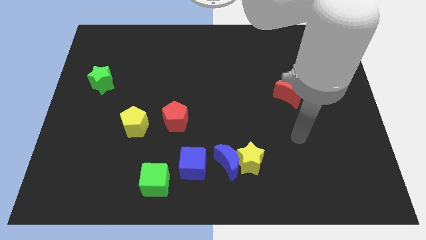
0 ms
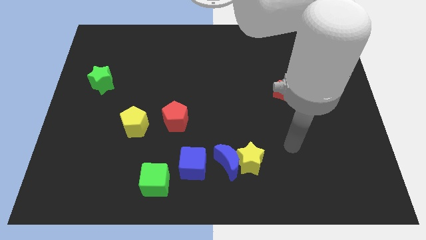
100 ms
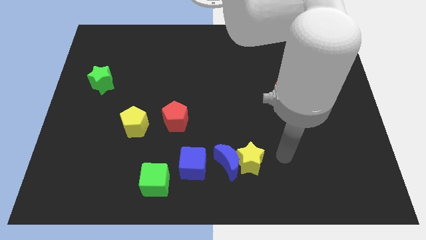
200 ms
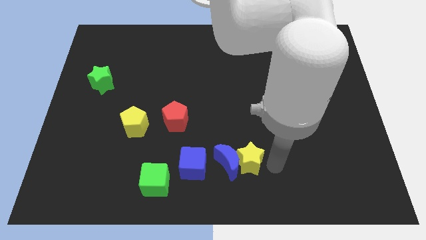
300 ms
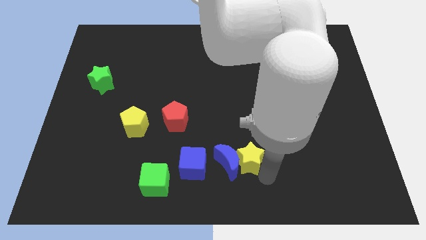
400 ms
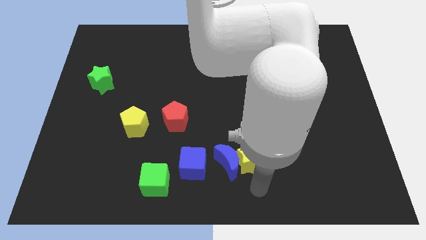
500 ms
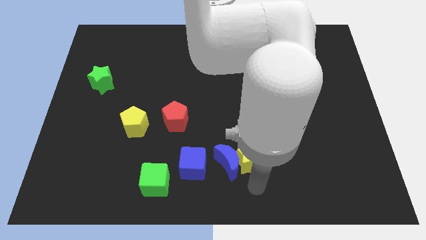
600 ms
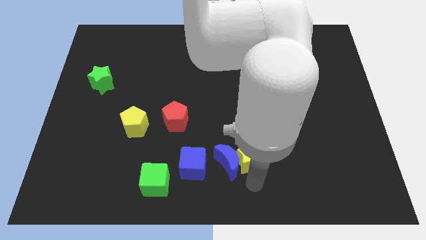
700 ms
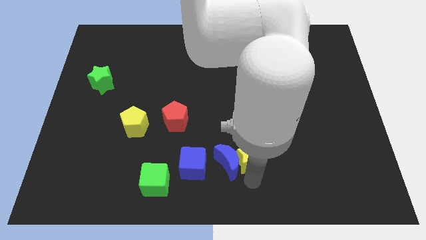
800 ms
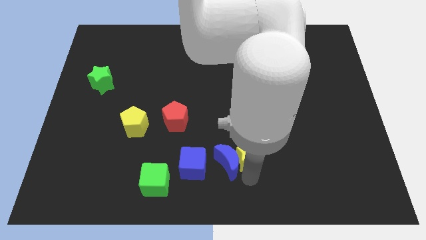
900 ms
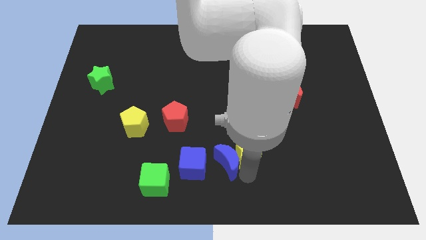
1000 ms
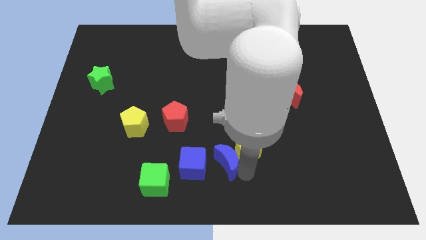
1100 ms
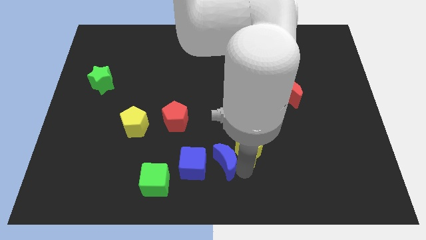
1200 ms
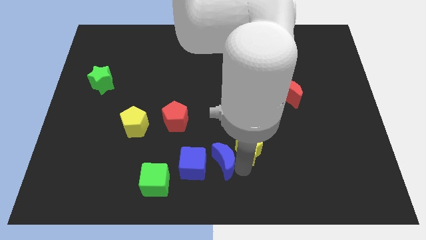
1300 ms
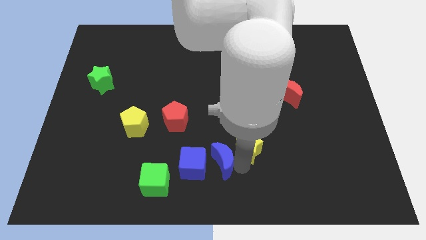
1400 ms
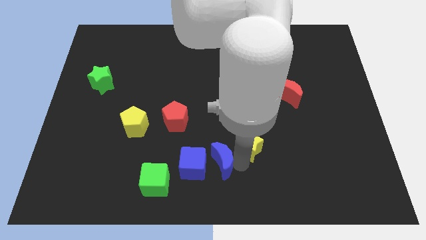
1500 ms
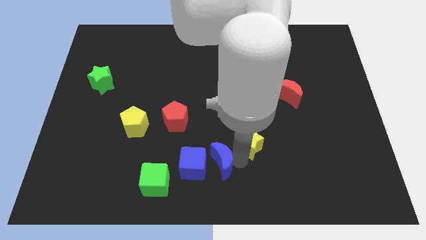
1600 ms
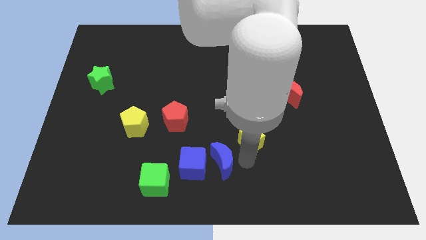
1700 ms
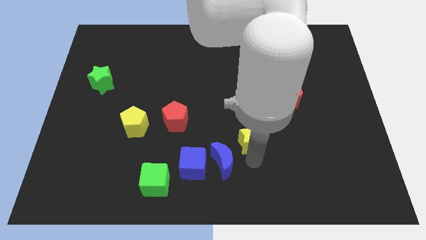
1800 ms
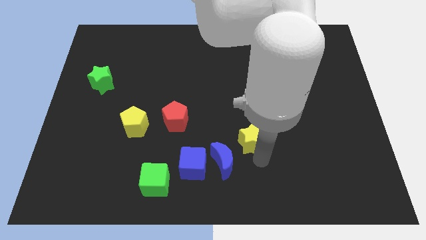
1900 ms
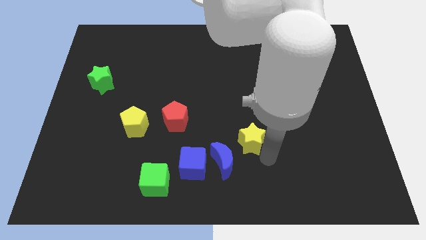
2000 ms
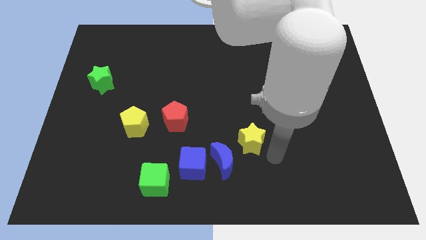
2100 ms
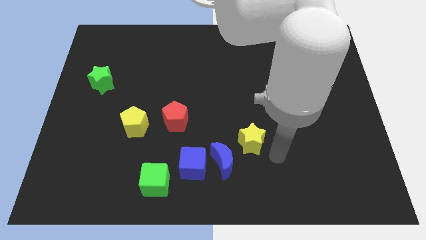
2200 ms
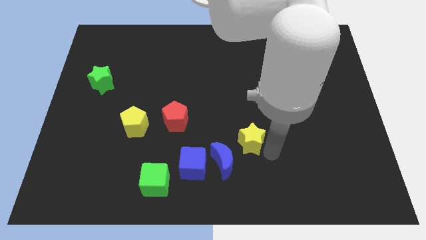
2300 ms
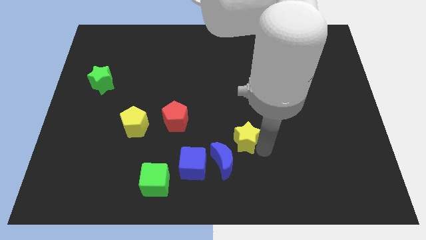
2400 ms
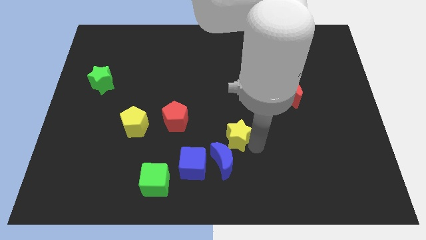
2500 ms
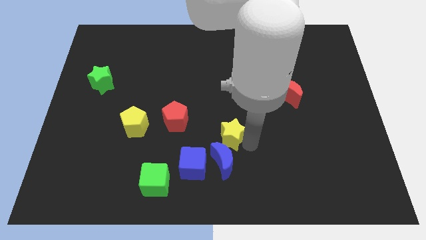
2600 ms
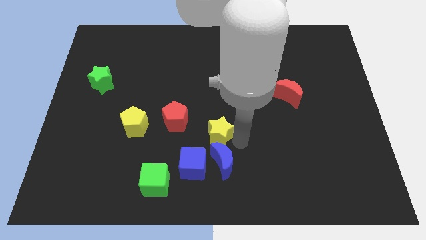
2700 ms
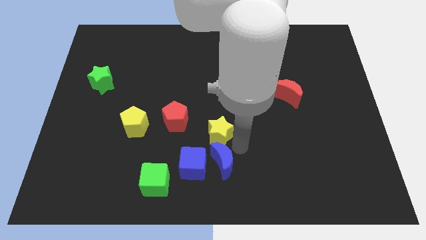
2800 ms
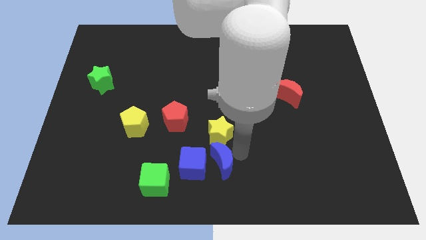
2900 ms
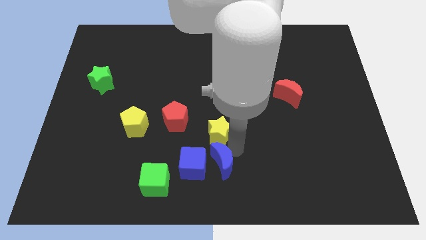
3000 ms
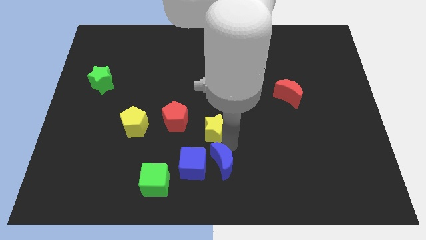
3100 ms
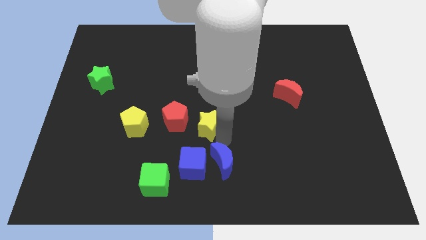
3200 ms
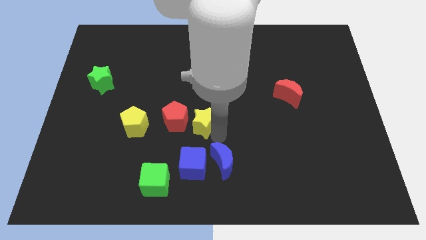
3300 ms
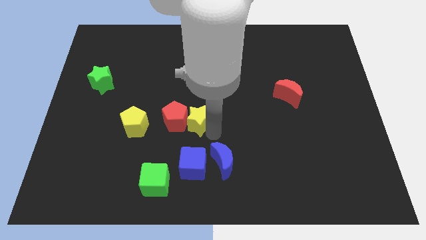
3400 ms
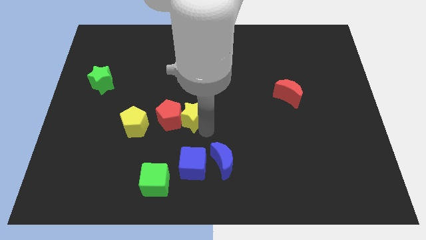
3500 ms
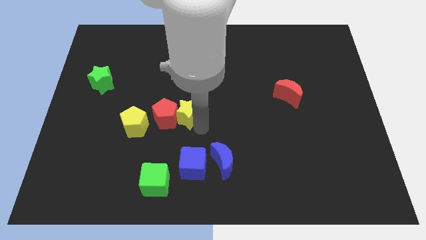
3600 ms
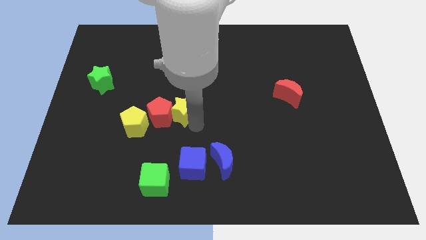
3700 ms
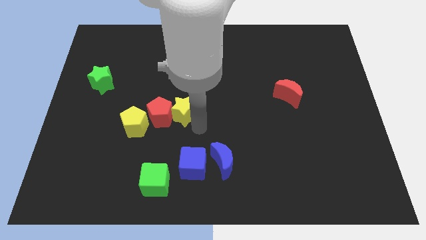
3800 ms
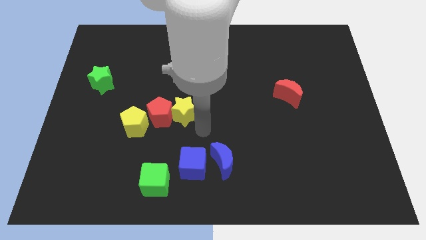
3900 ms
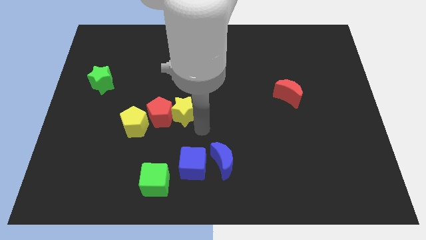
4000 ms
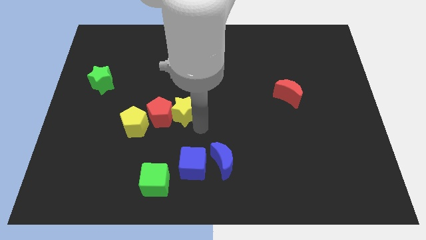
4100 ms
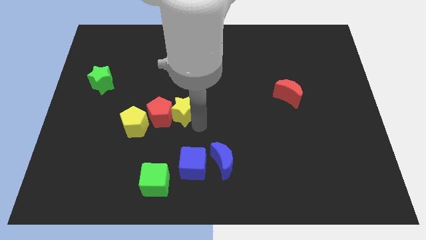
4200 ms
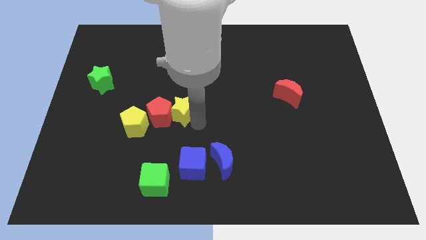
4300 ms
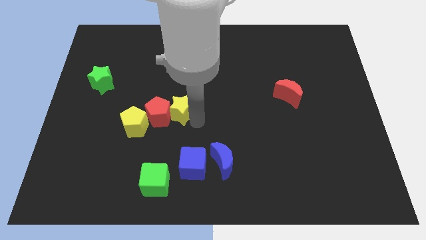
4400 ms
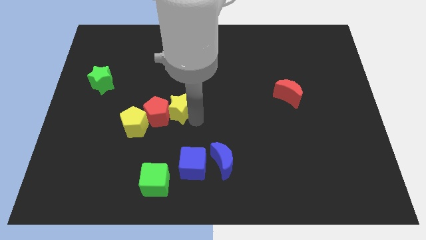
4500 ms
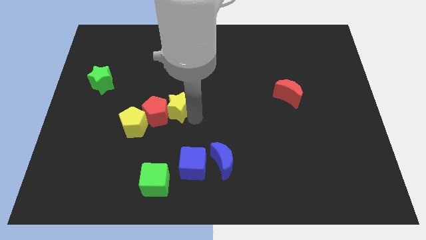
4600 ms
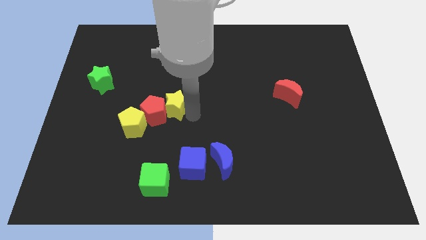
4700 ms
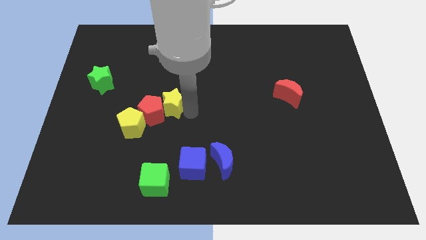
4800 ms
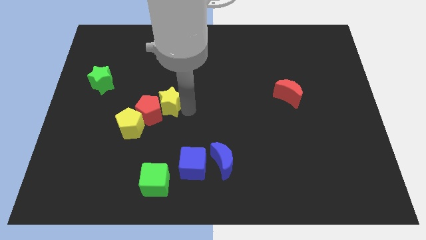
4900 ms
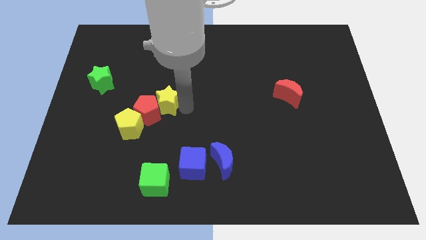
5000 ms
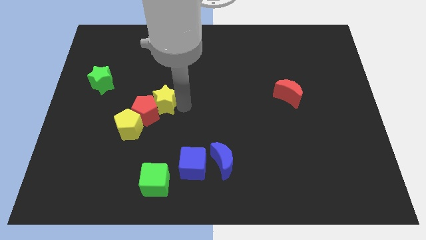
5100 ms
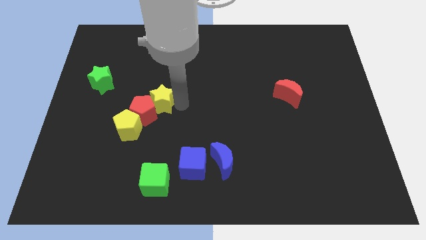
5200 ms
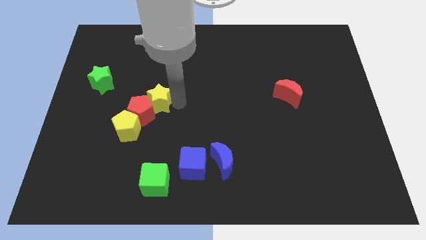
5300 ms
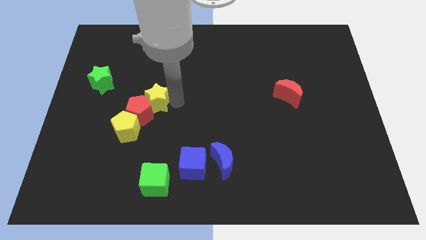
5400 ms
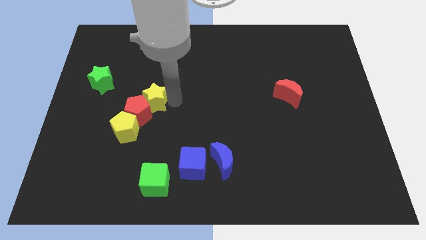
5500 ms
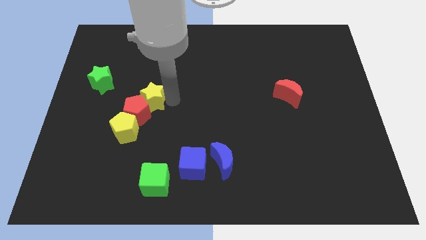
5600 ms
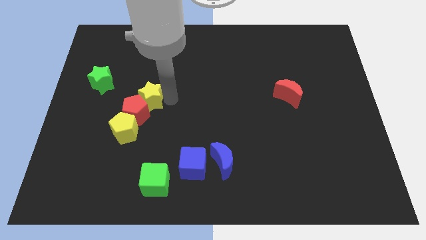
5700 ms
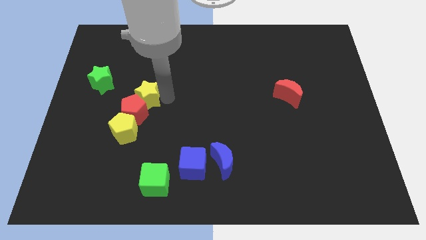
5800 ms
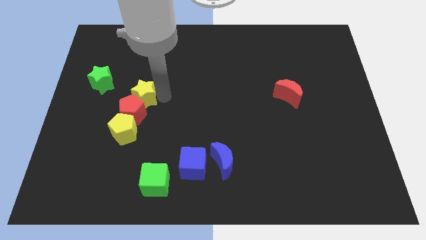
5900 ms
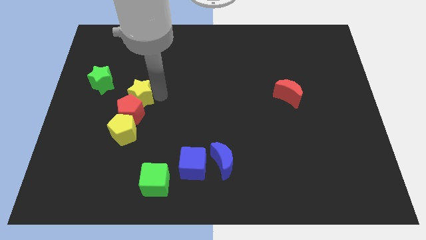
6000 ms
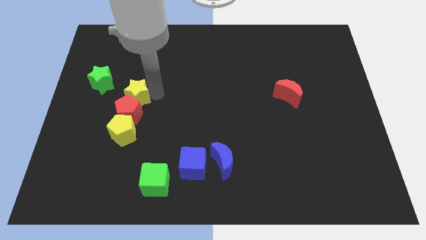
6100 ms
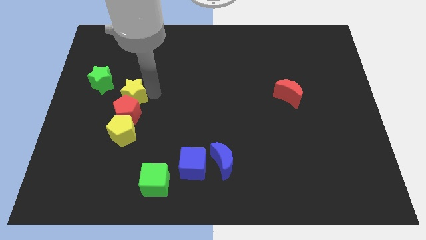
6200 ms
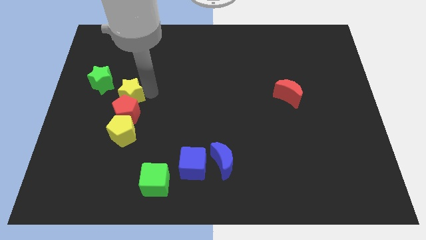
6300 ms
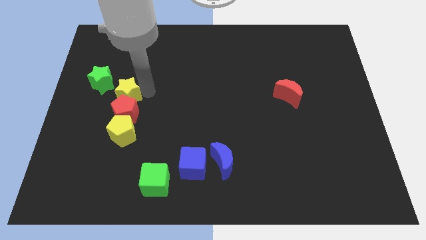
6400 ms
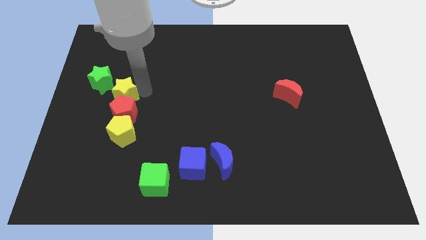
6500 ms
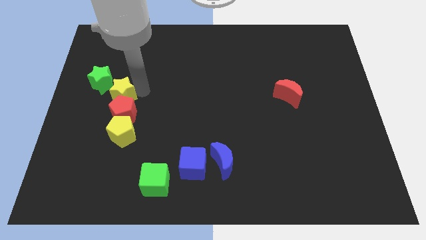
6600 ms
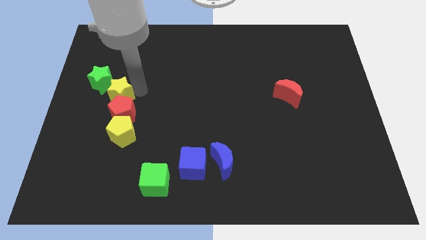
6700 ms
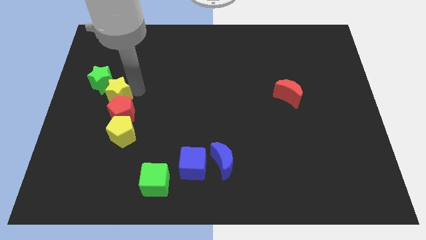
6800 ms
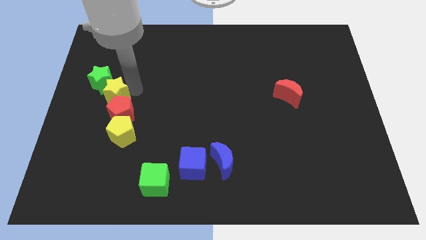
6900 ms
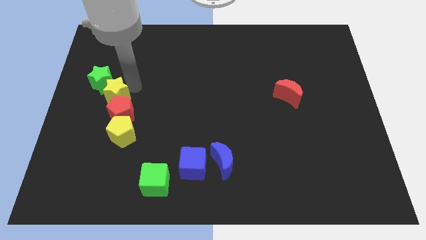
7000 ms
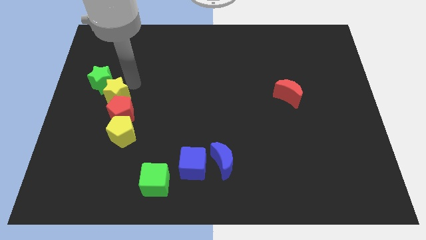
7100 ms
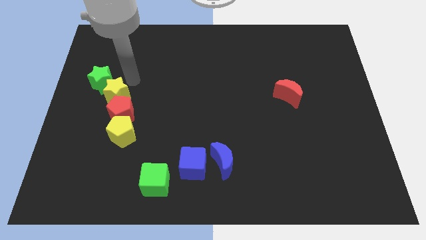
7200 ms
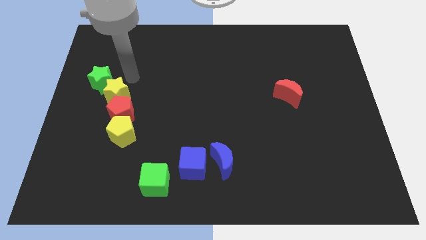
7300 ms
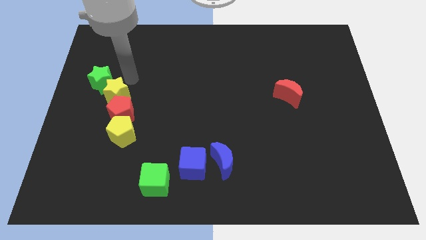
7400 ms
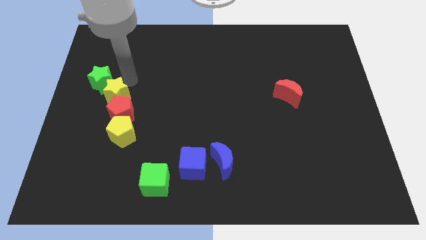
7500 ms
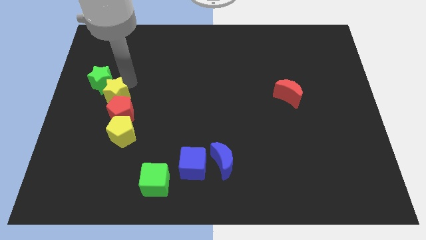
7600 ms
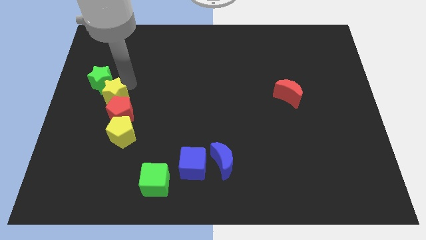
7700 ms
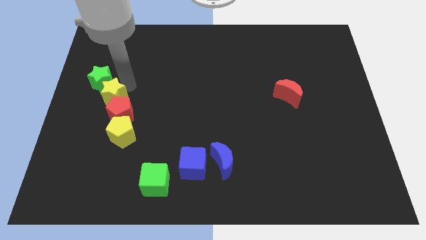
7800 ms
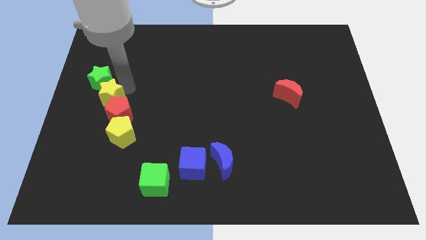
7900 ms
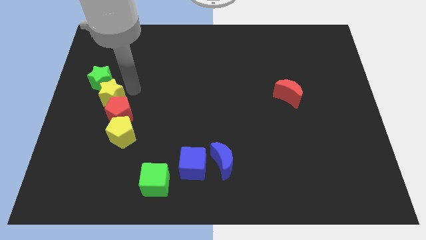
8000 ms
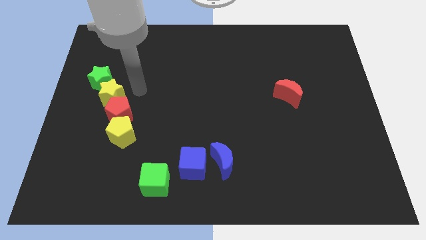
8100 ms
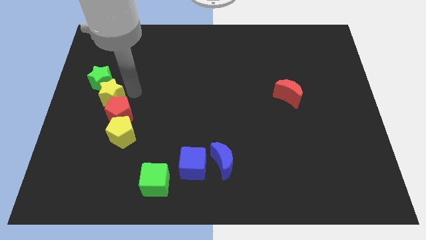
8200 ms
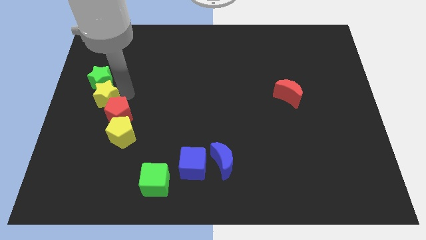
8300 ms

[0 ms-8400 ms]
slide the yellow star to the left side
